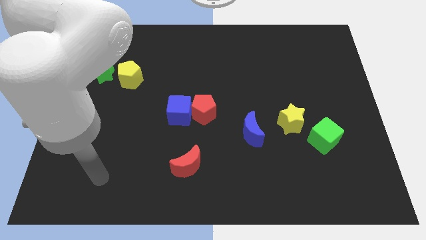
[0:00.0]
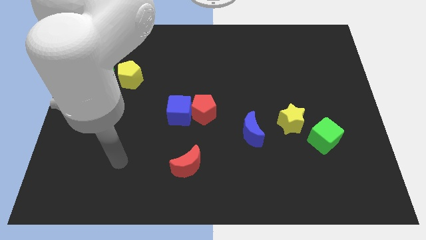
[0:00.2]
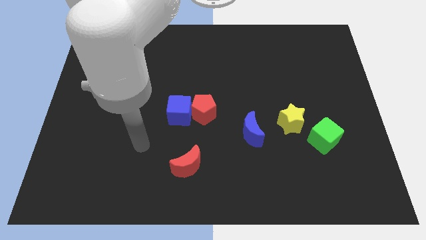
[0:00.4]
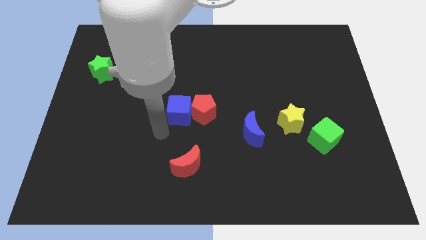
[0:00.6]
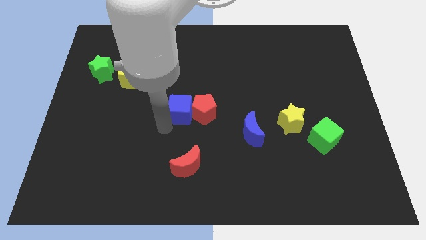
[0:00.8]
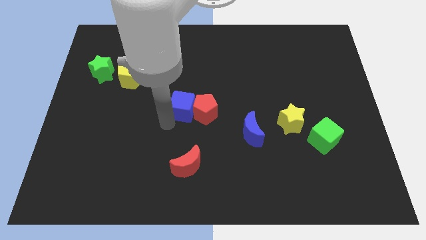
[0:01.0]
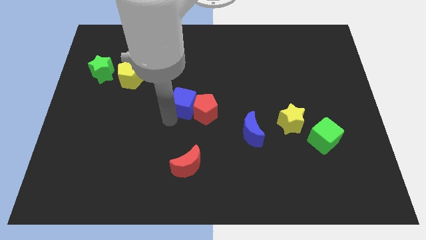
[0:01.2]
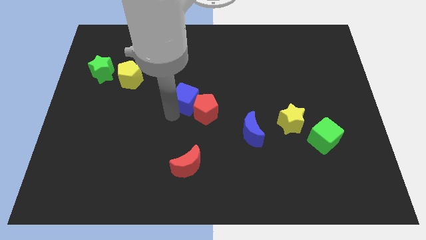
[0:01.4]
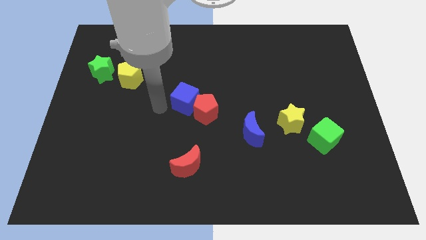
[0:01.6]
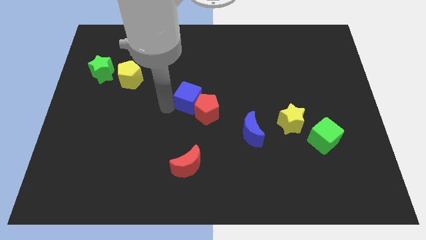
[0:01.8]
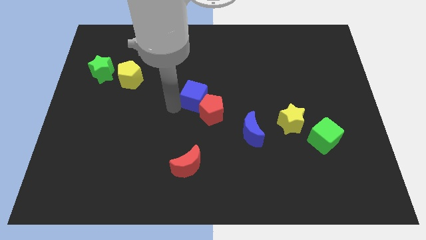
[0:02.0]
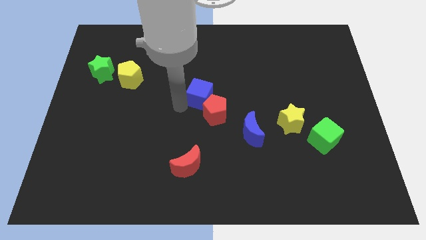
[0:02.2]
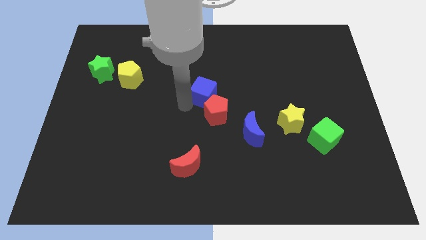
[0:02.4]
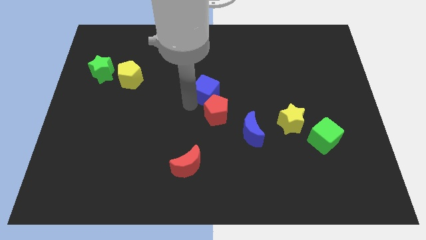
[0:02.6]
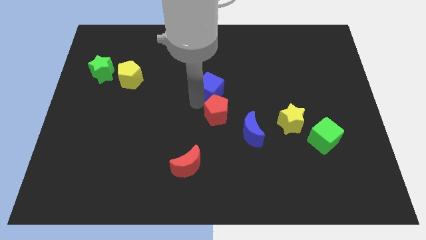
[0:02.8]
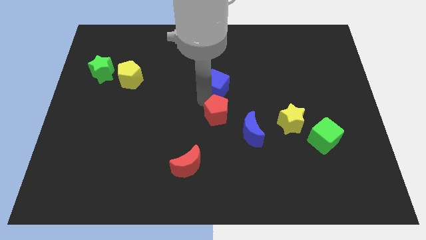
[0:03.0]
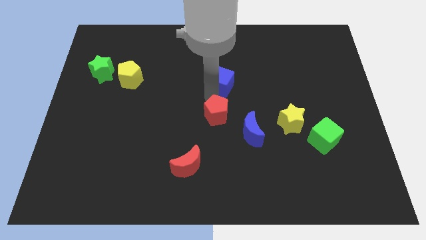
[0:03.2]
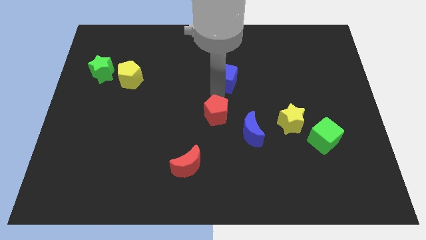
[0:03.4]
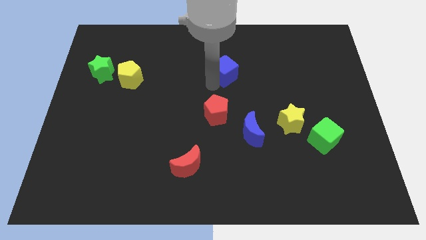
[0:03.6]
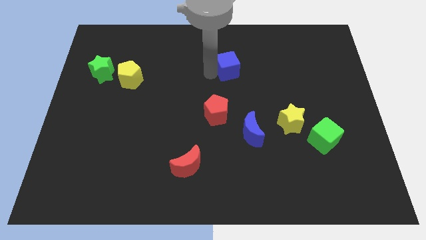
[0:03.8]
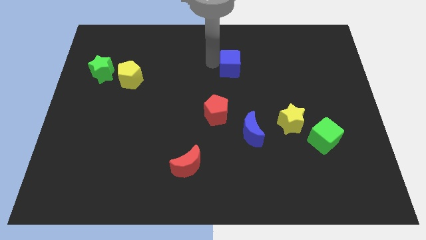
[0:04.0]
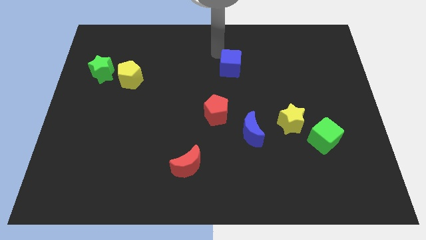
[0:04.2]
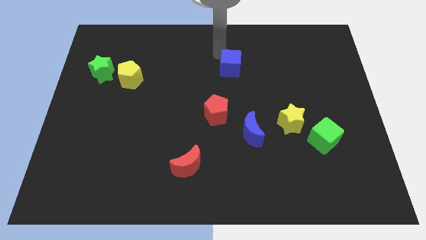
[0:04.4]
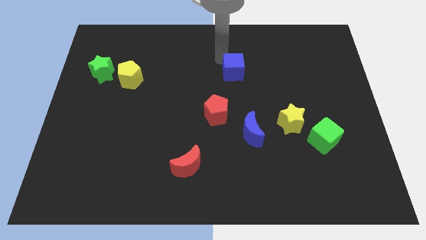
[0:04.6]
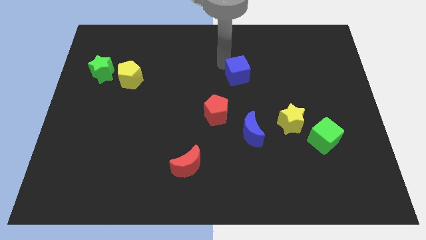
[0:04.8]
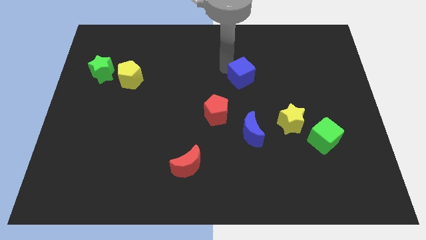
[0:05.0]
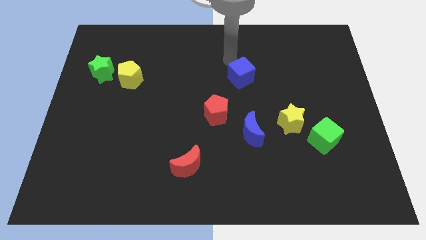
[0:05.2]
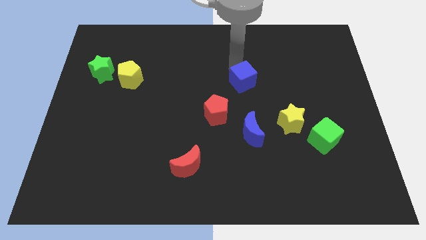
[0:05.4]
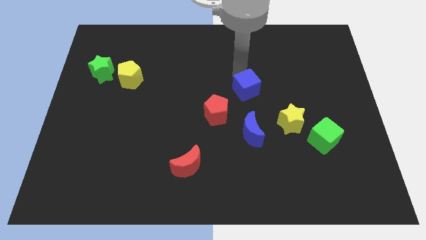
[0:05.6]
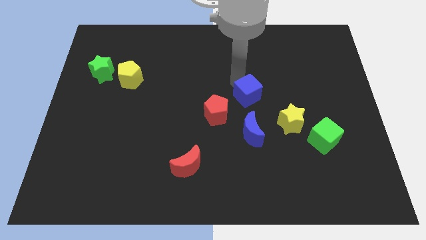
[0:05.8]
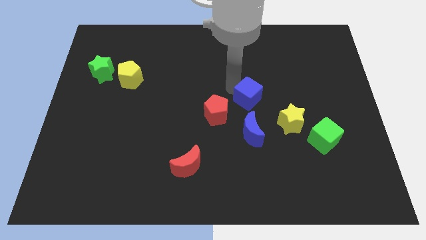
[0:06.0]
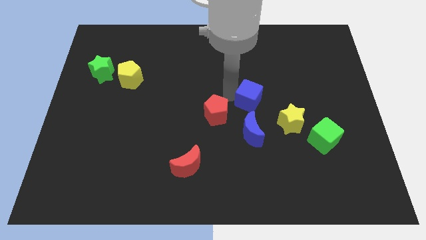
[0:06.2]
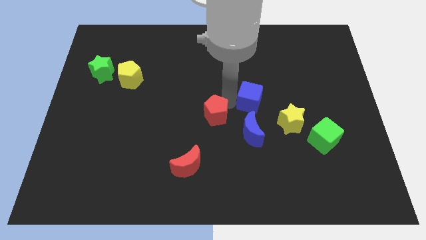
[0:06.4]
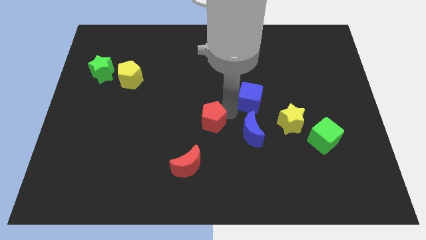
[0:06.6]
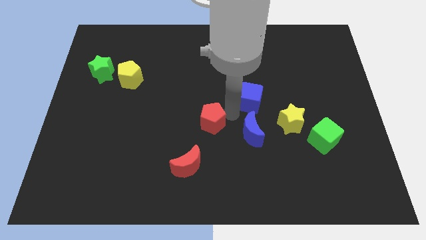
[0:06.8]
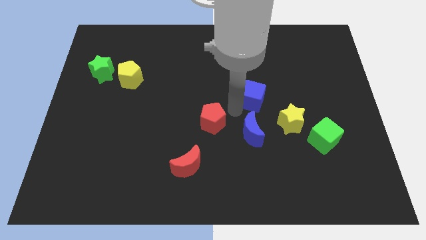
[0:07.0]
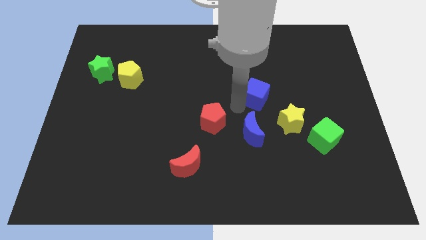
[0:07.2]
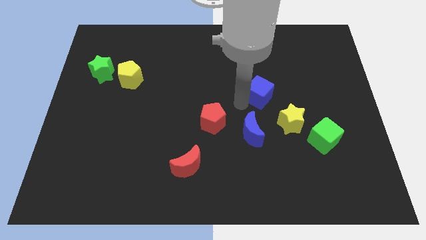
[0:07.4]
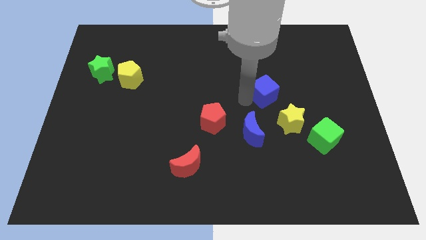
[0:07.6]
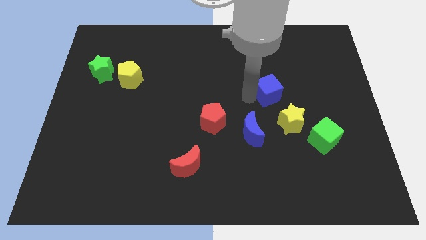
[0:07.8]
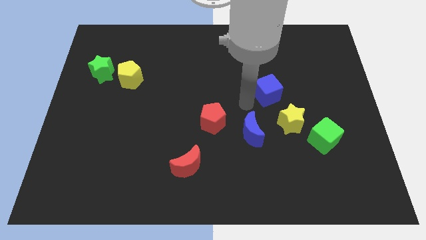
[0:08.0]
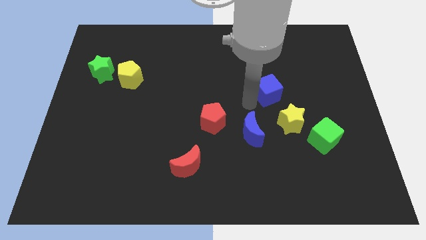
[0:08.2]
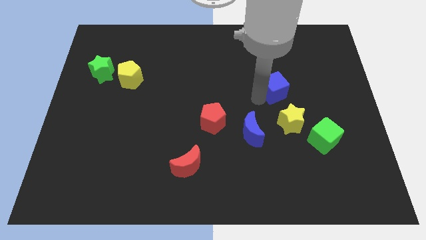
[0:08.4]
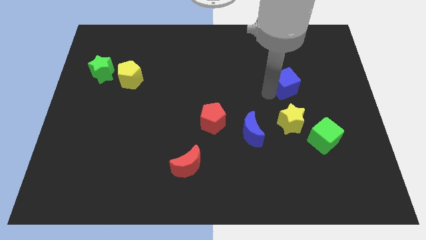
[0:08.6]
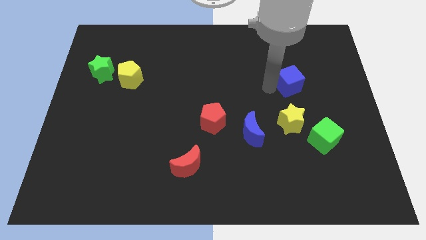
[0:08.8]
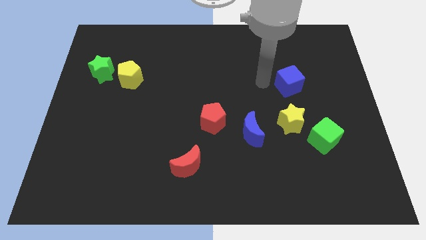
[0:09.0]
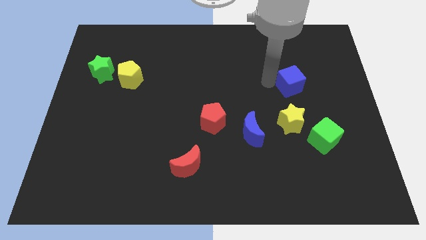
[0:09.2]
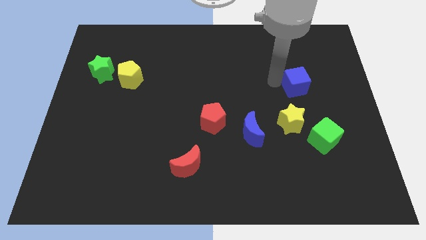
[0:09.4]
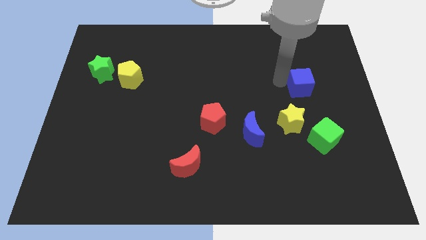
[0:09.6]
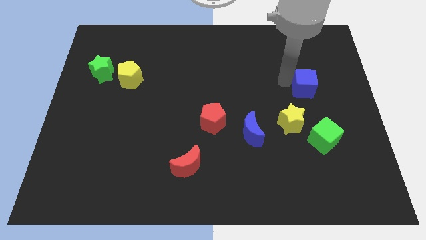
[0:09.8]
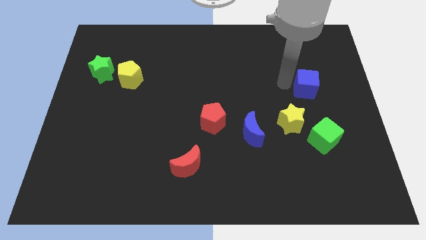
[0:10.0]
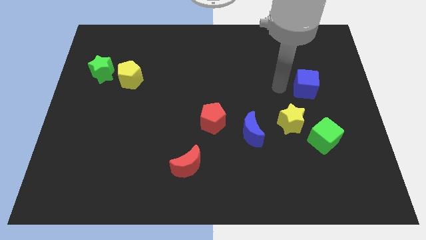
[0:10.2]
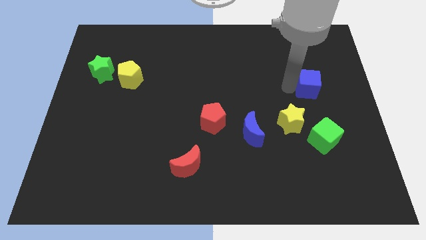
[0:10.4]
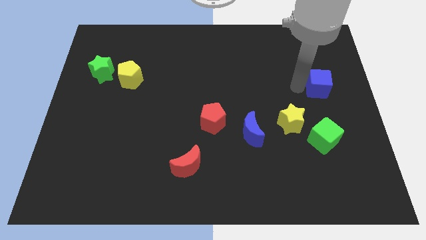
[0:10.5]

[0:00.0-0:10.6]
put the blue cube to the center right
